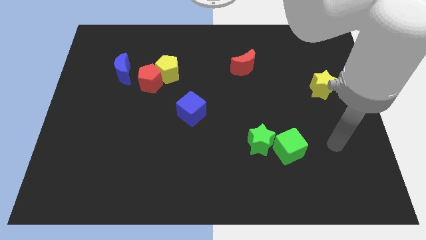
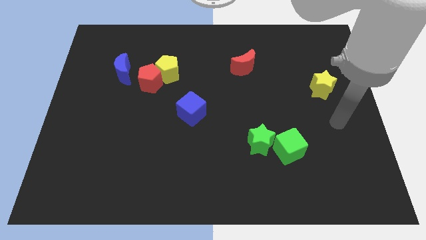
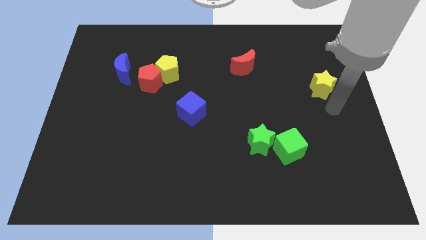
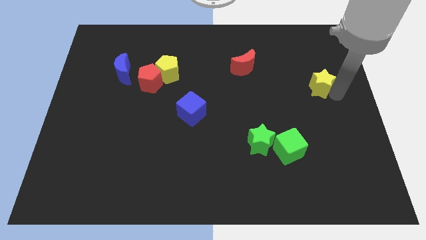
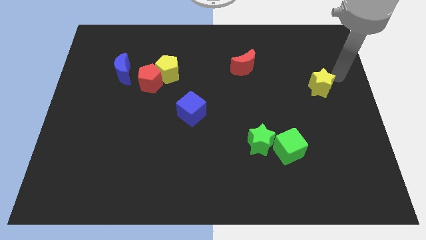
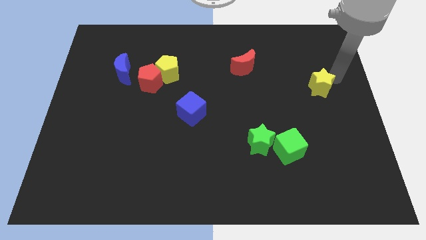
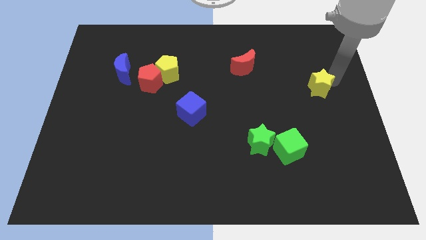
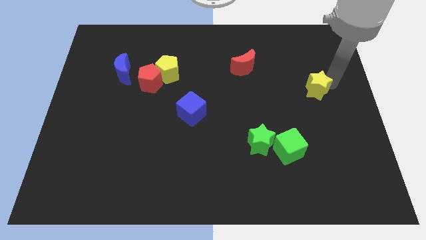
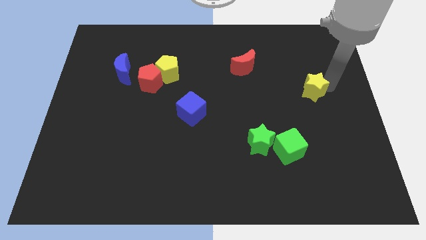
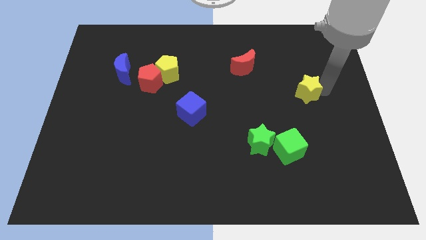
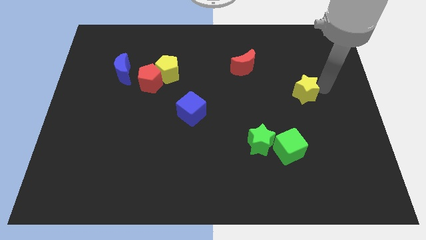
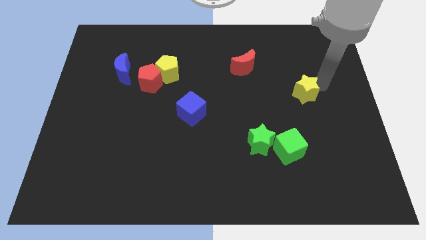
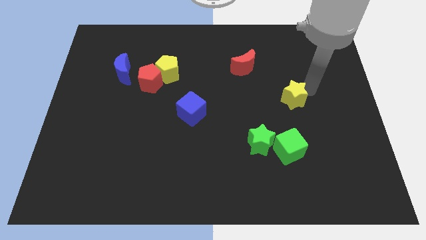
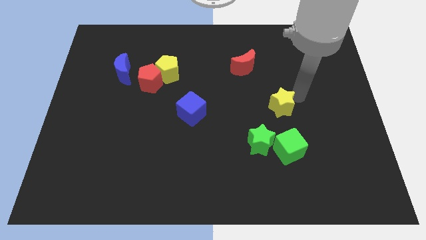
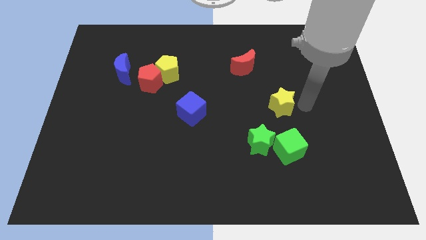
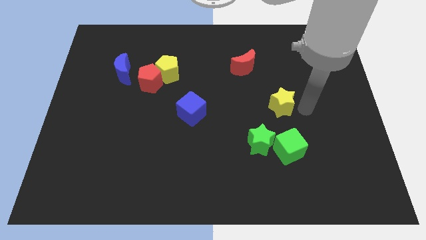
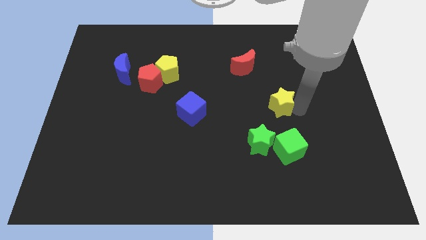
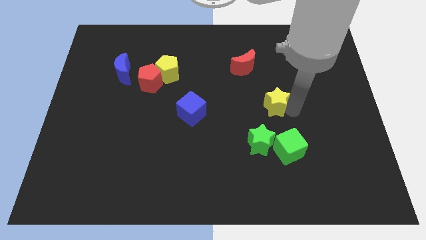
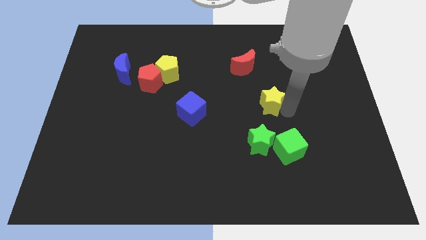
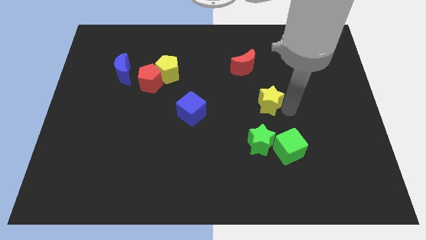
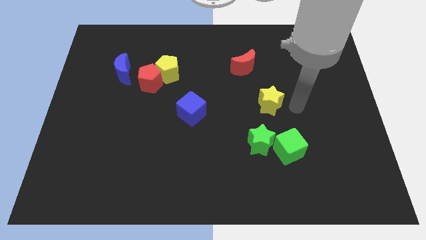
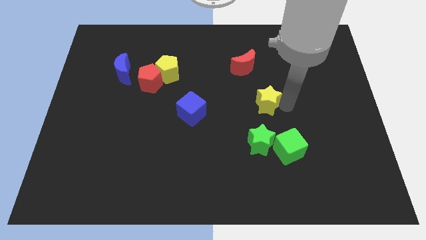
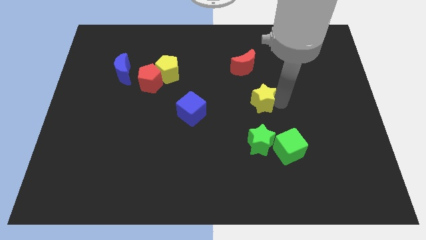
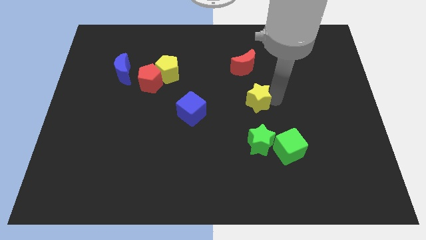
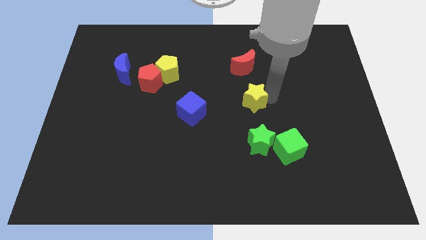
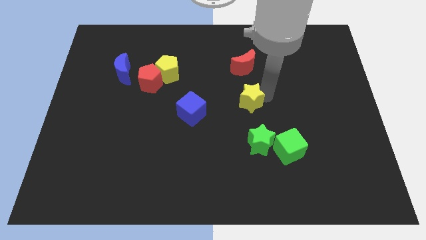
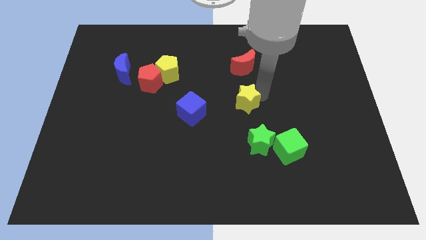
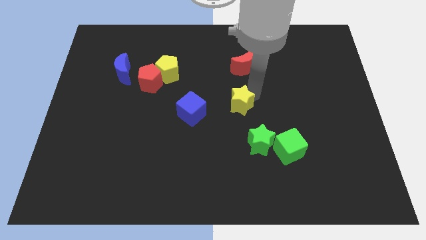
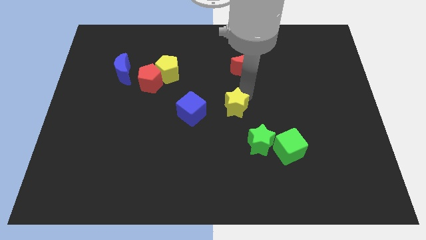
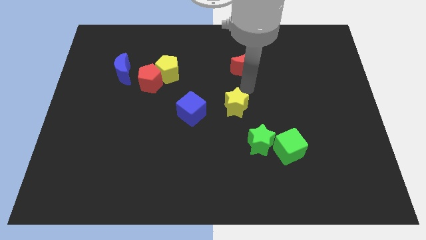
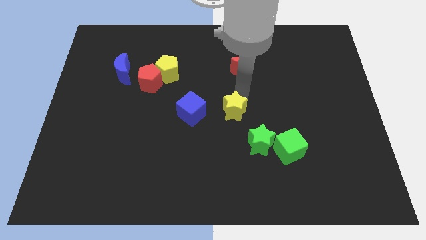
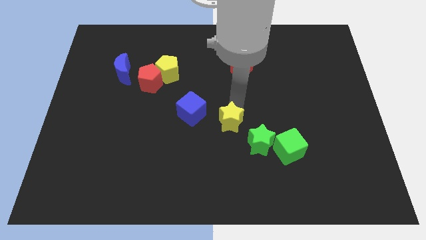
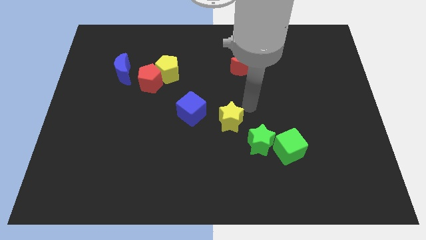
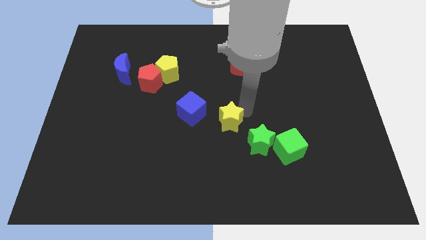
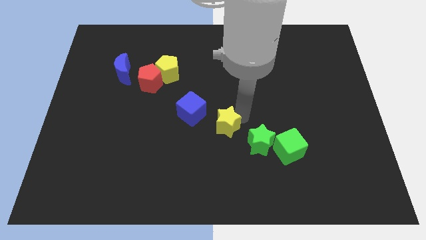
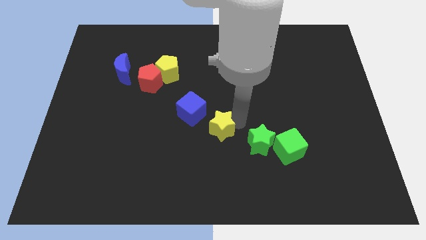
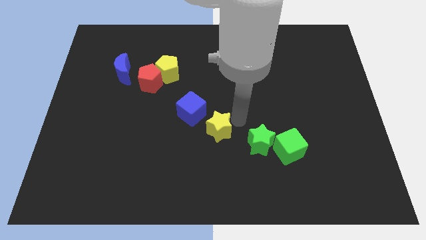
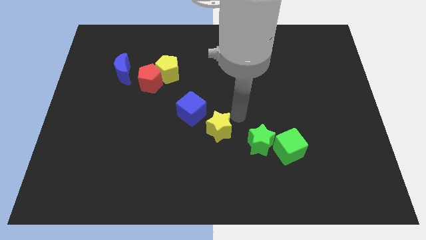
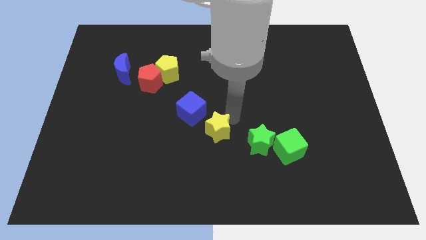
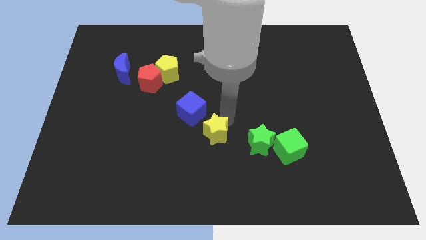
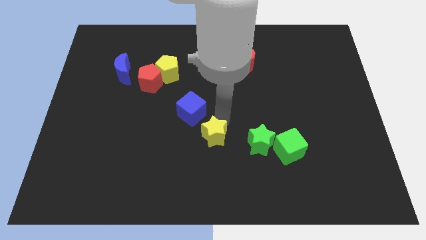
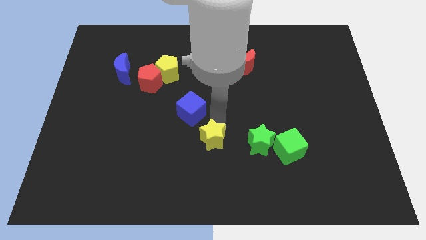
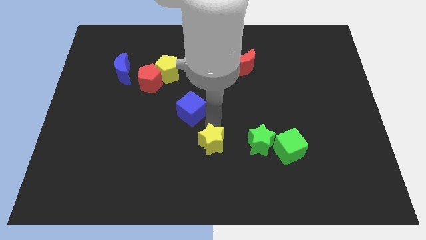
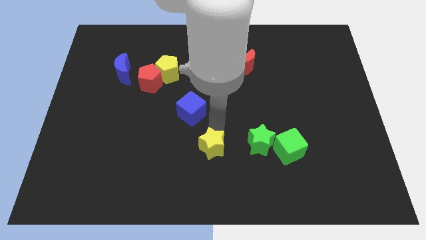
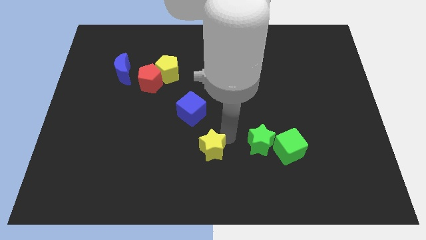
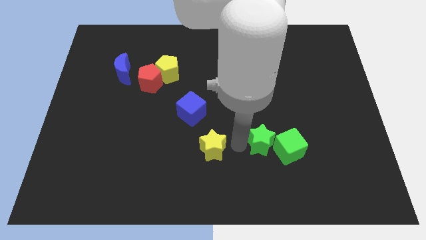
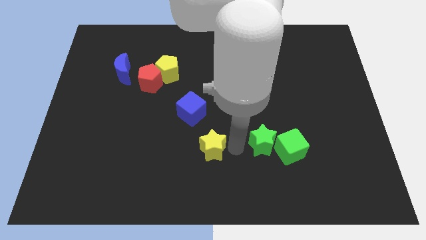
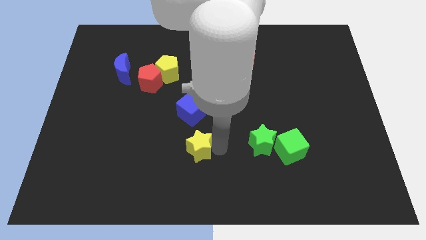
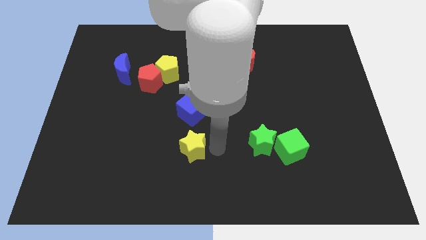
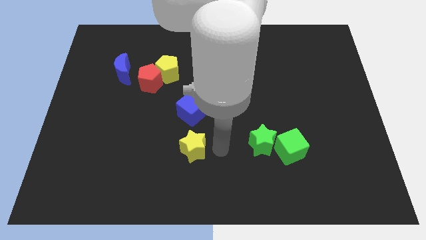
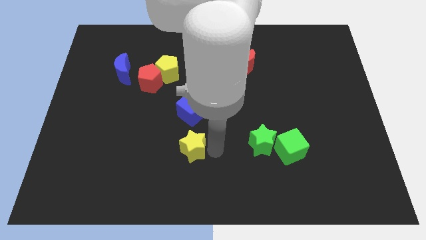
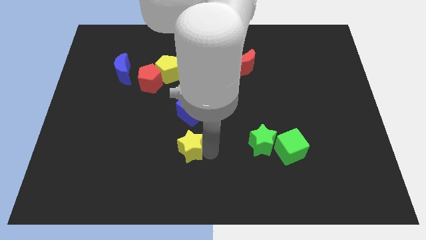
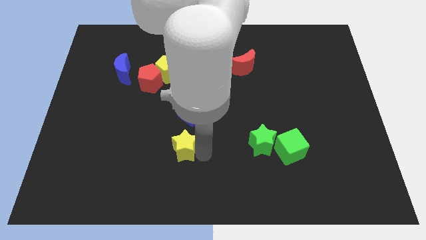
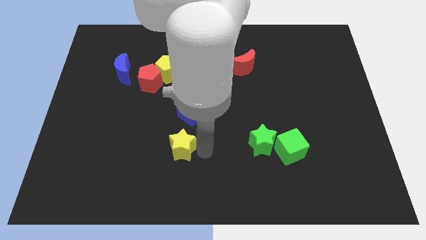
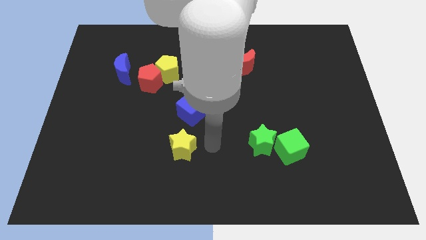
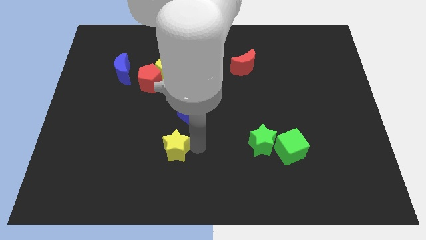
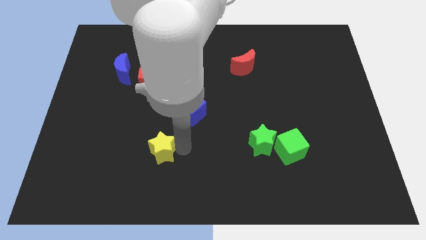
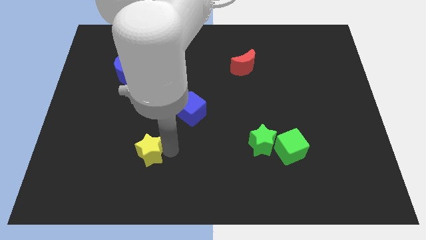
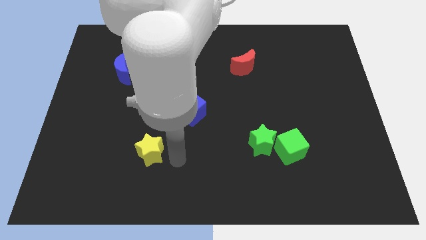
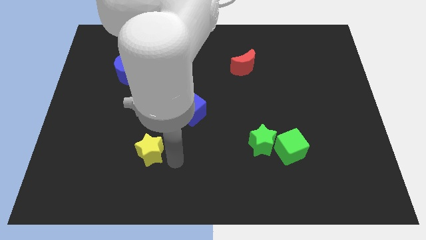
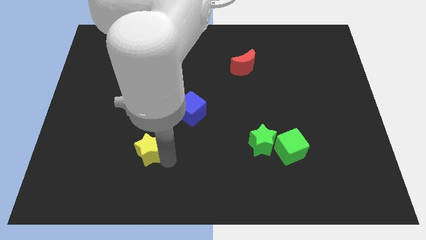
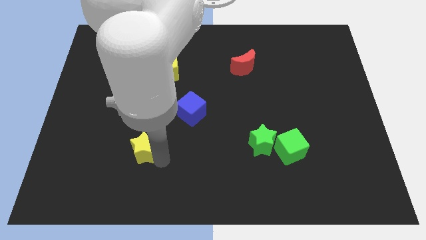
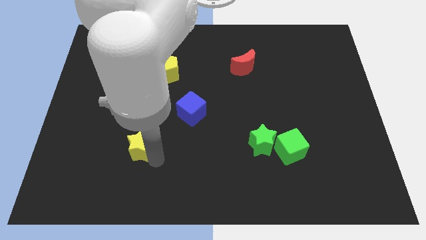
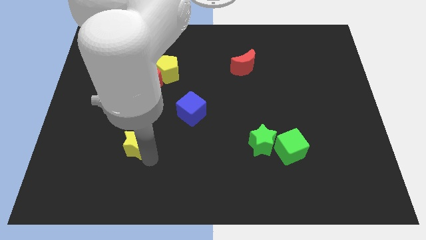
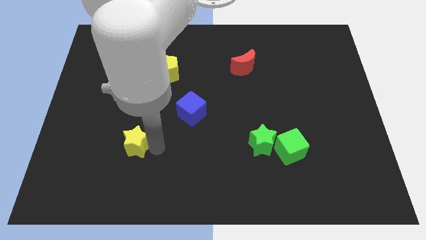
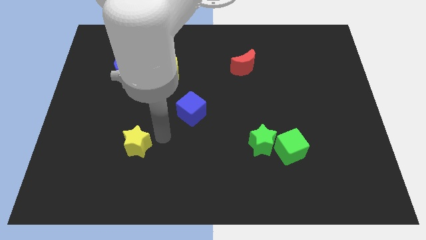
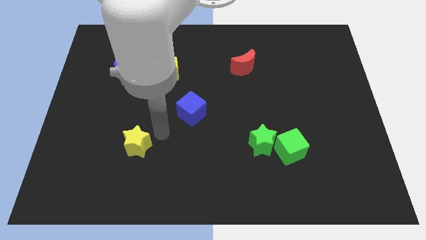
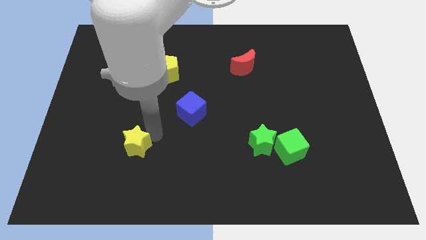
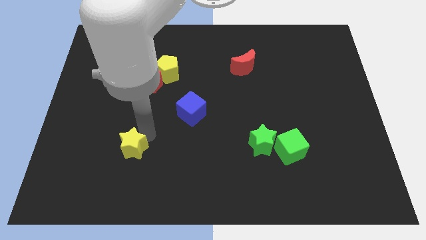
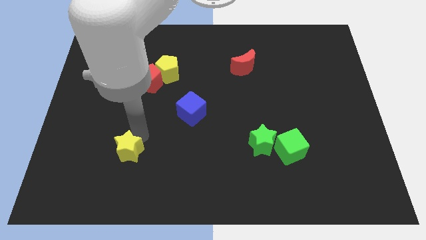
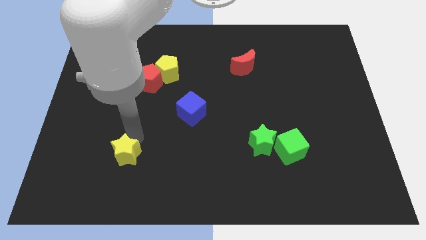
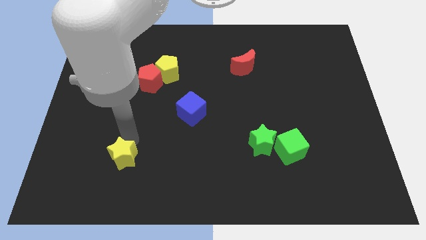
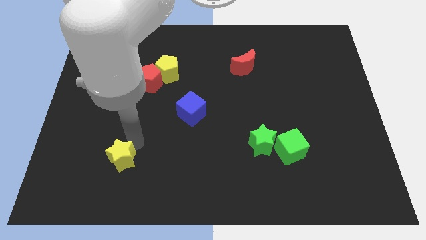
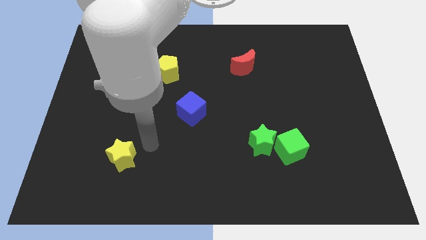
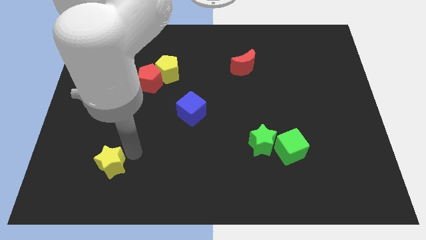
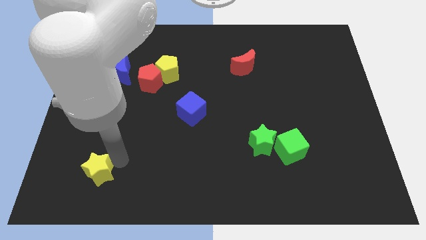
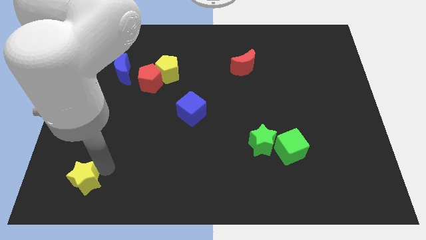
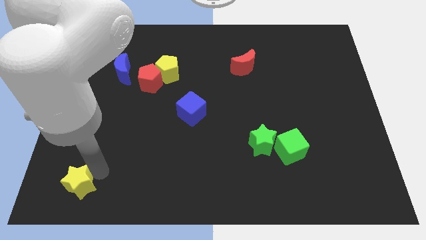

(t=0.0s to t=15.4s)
slide the yellow star to the lower left corner
